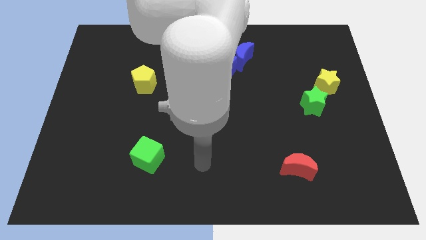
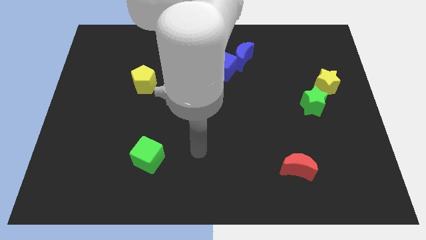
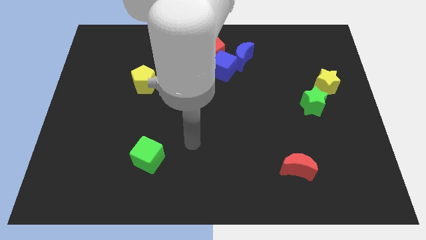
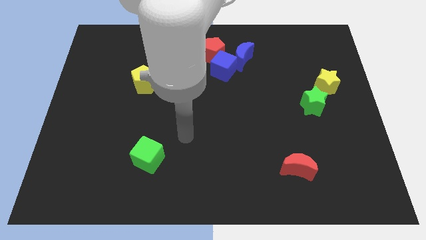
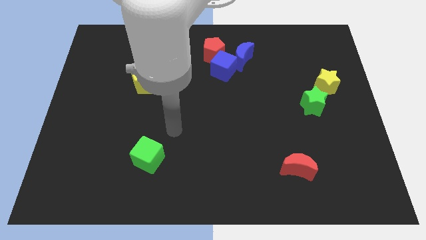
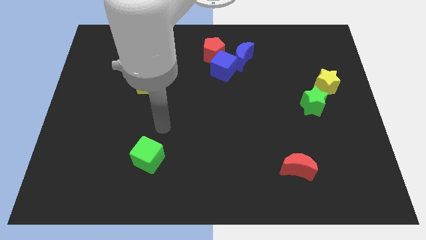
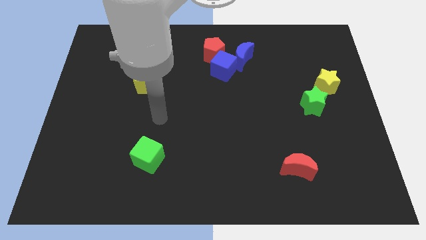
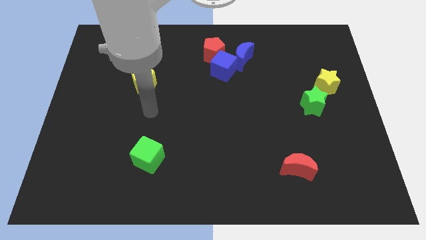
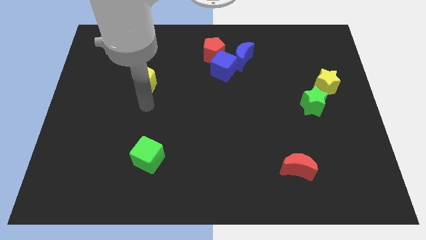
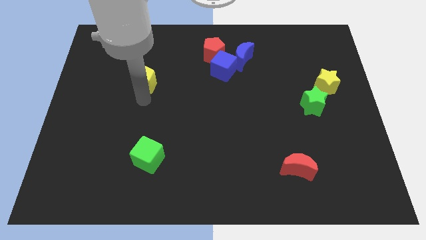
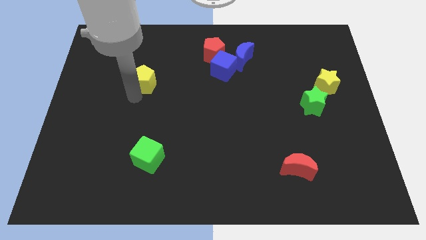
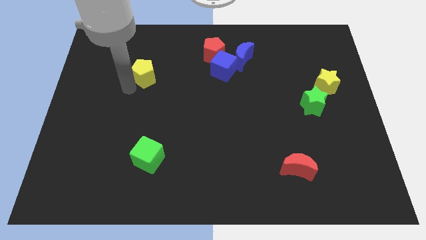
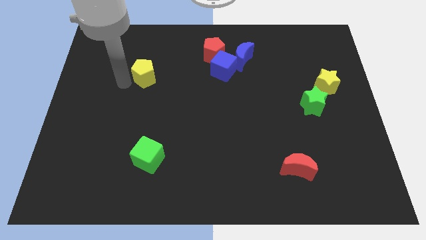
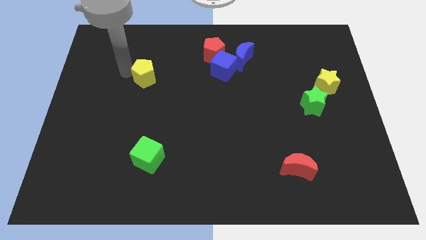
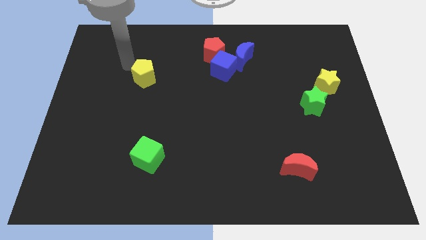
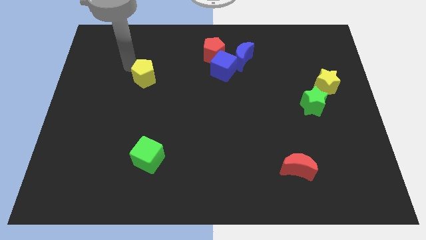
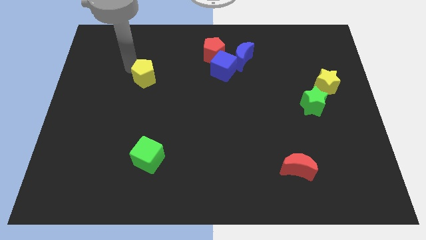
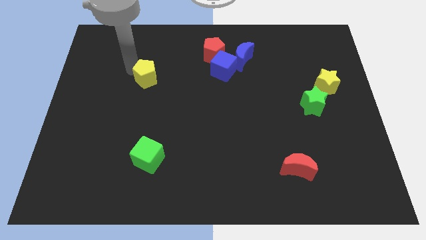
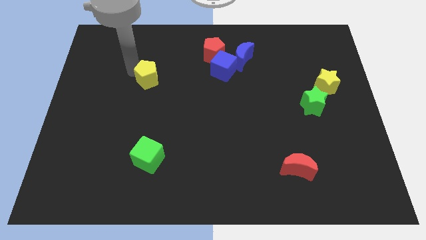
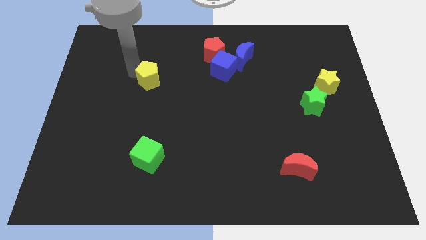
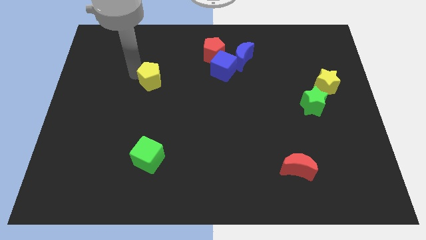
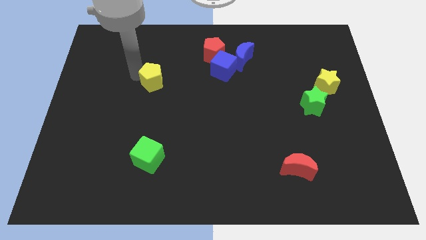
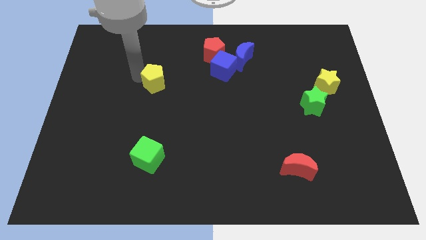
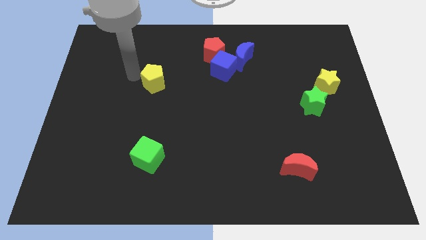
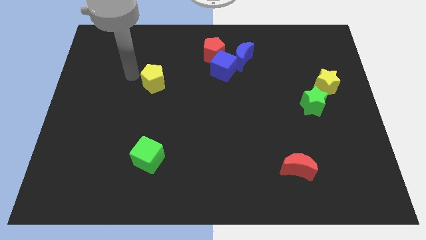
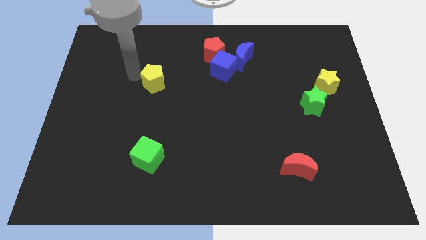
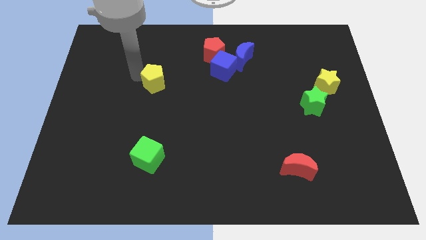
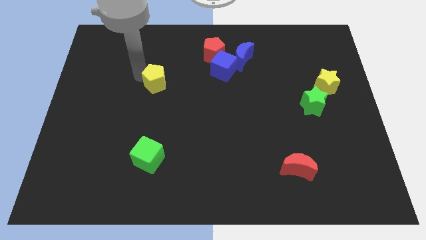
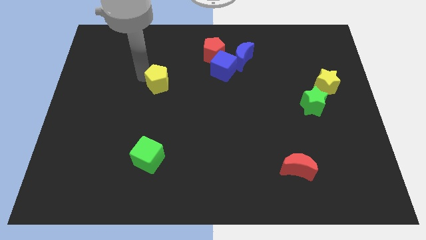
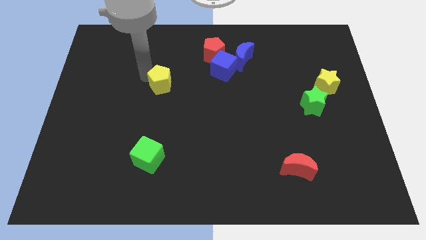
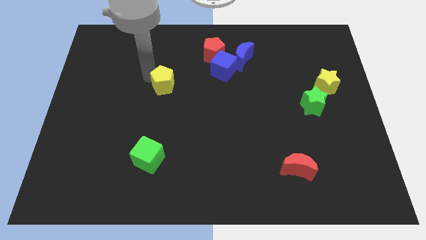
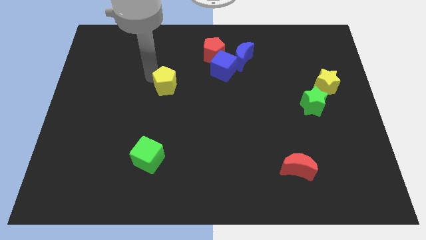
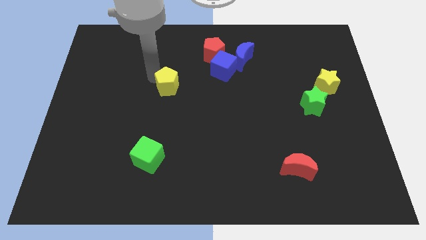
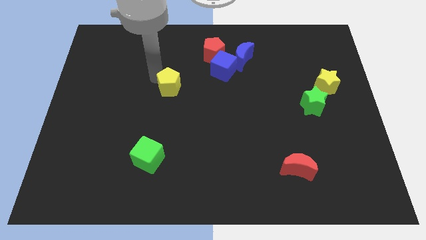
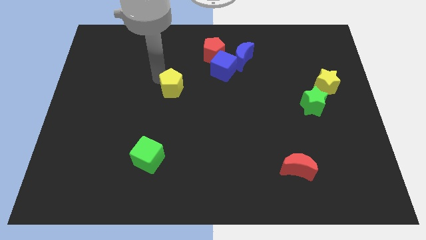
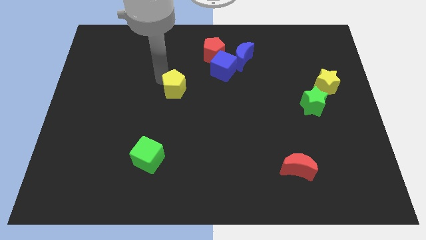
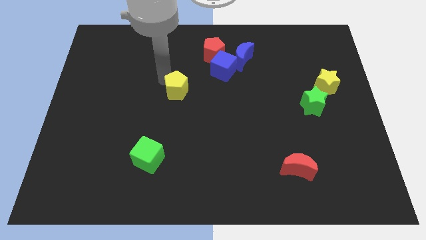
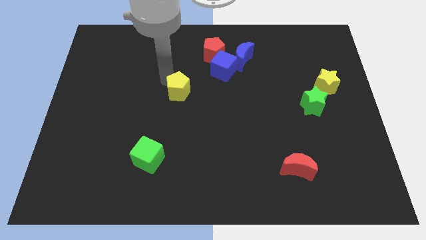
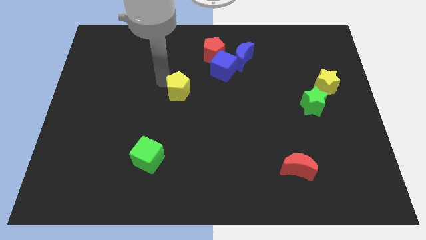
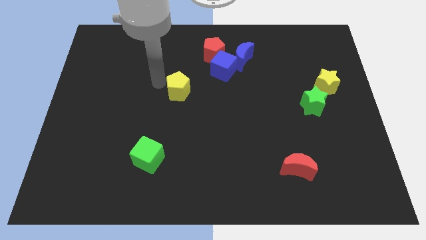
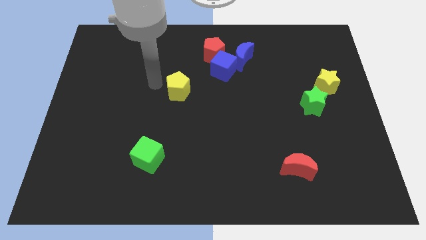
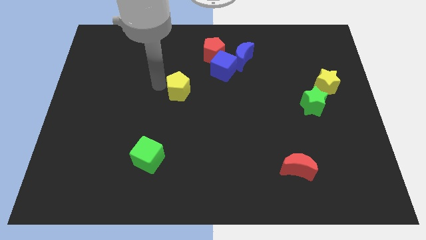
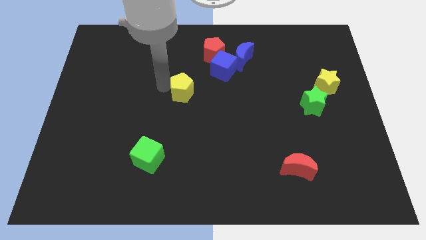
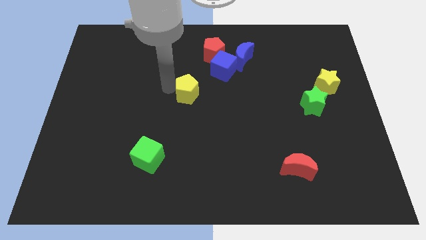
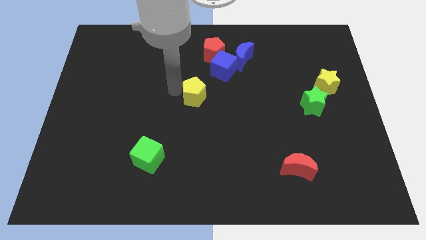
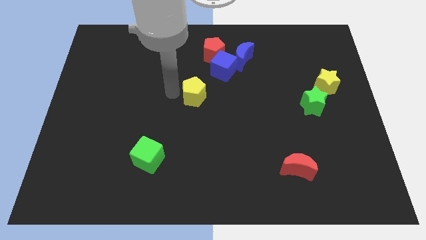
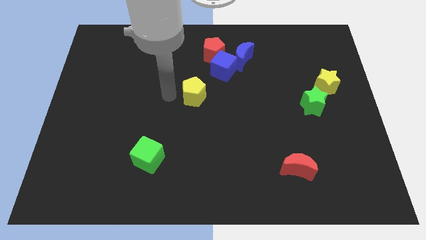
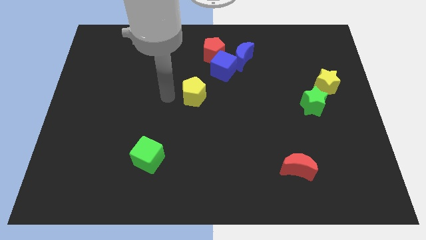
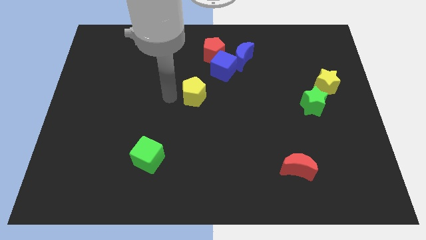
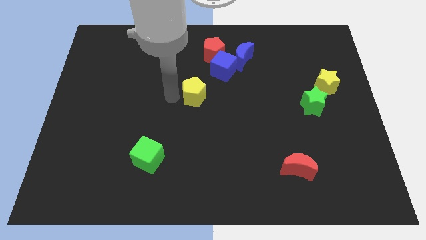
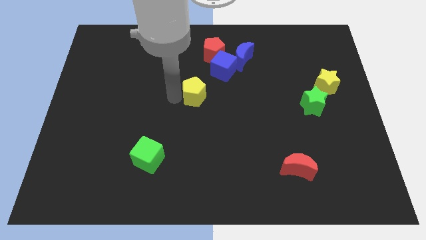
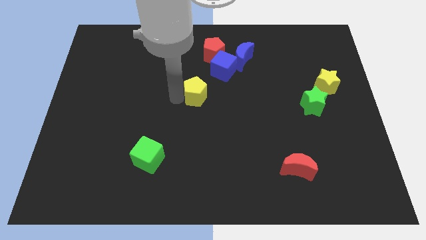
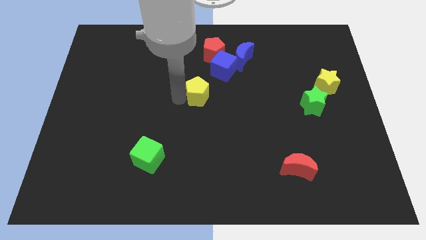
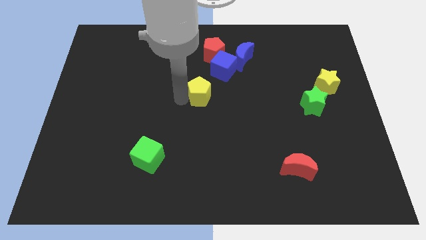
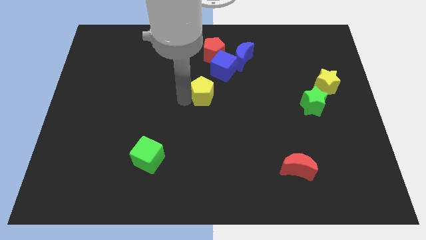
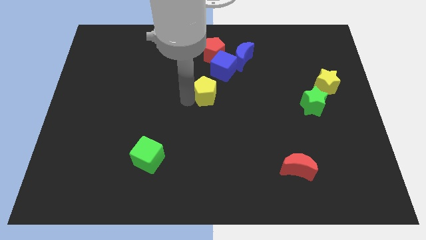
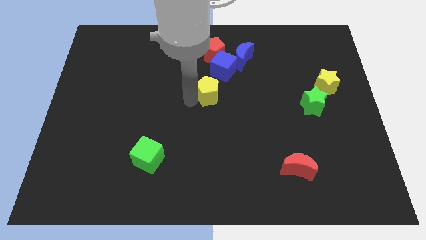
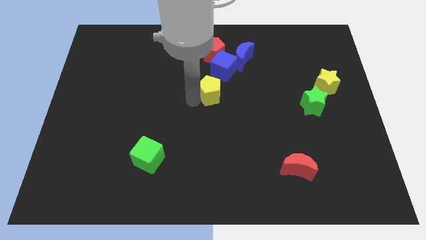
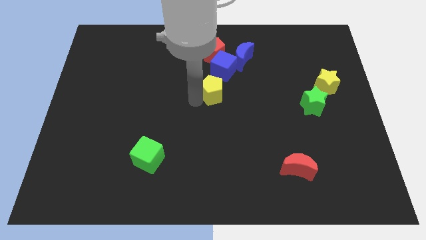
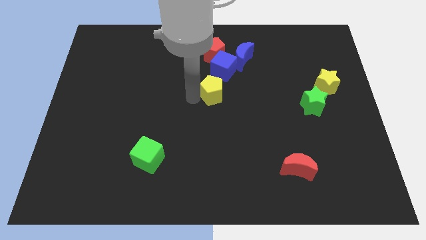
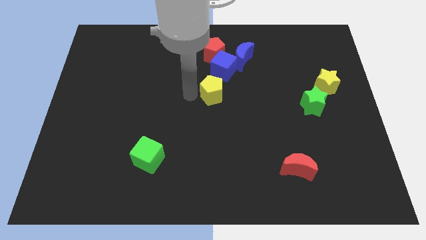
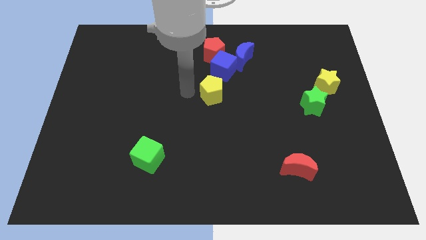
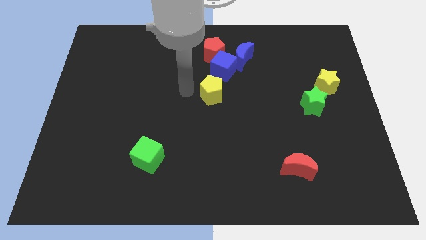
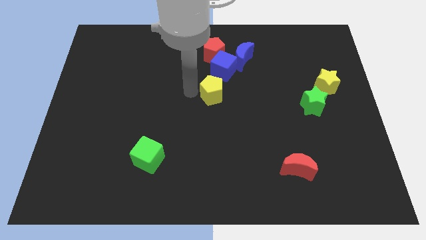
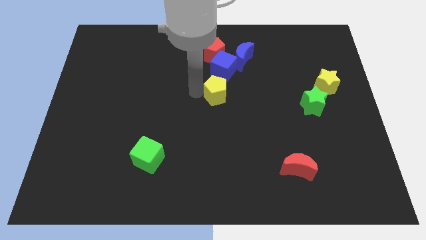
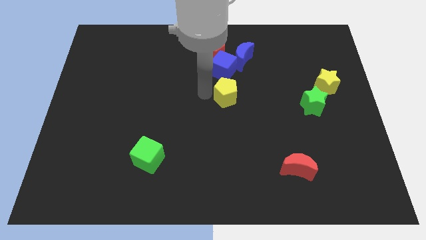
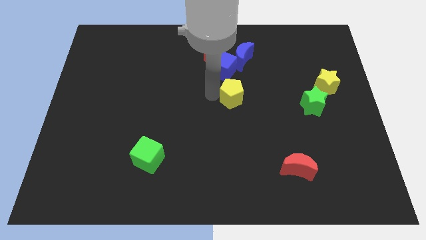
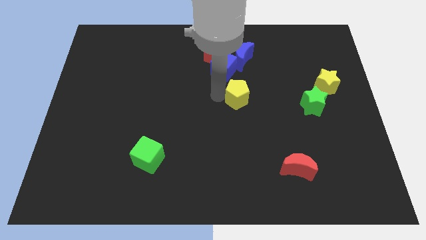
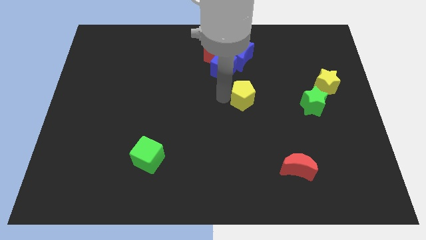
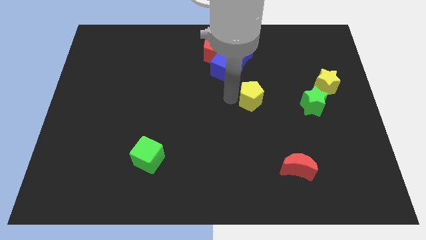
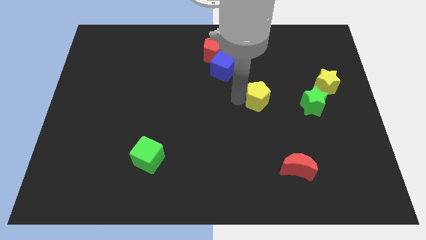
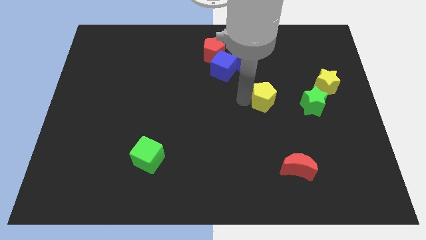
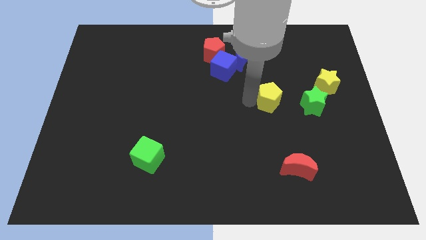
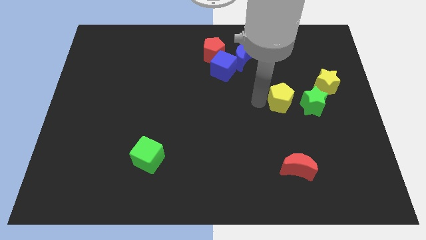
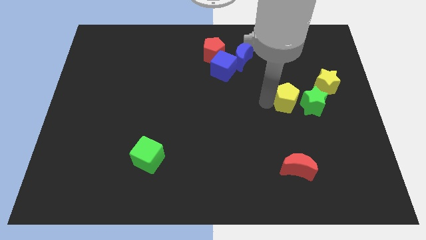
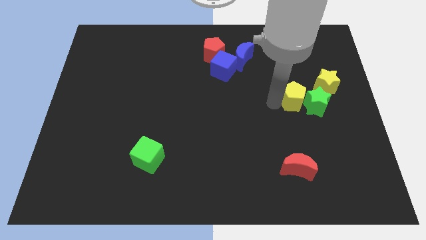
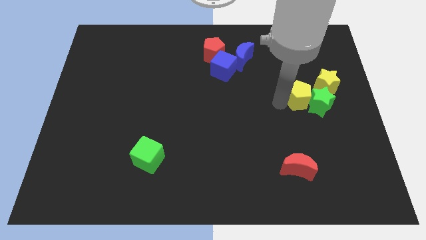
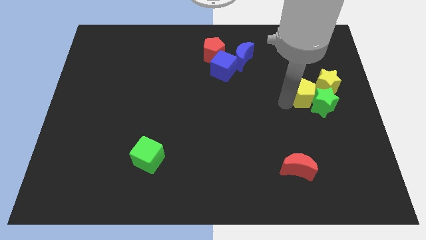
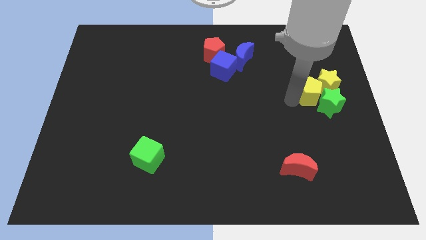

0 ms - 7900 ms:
put the yellow pentagon to the yellow star
